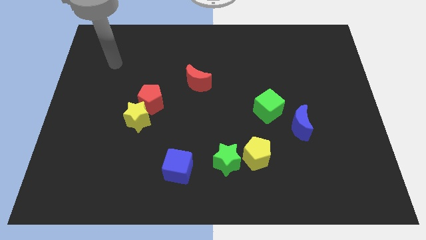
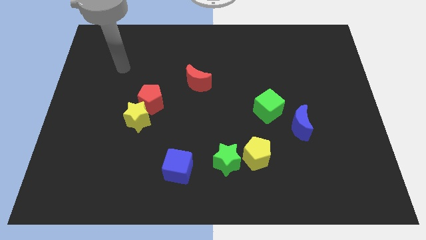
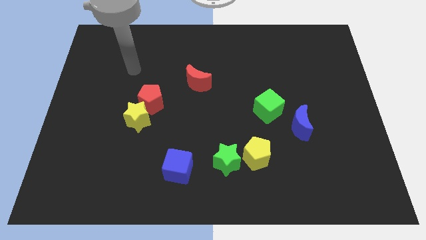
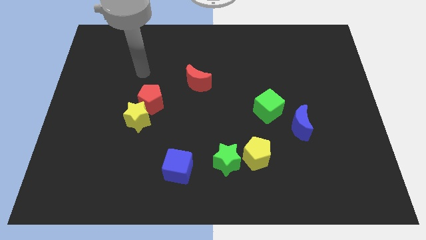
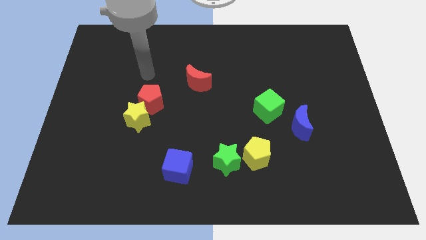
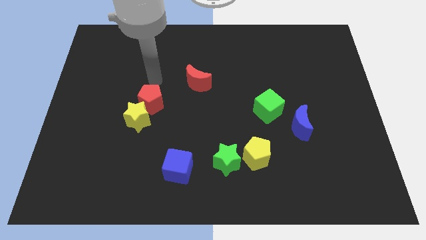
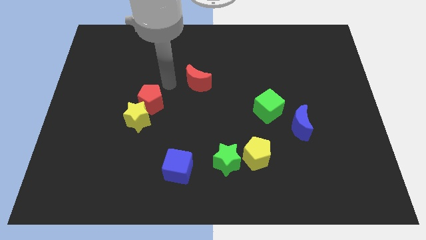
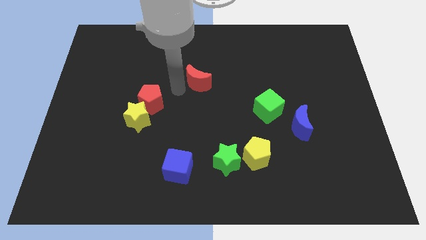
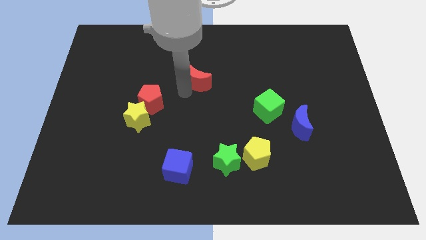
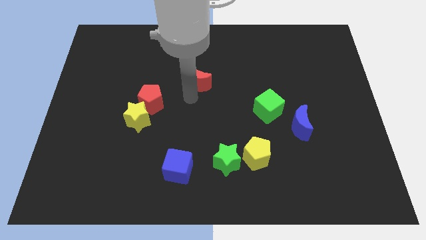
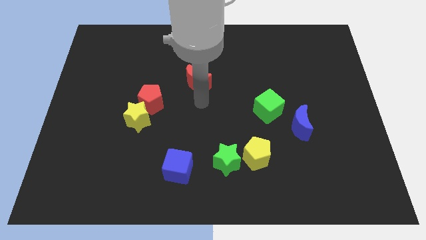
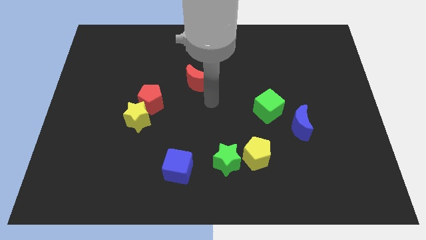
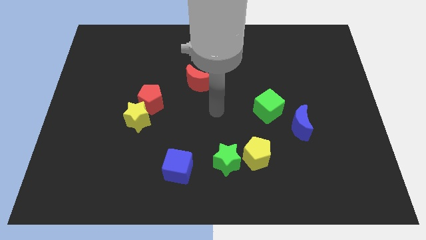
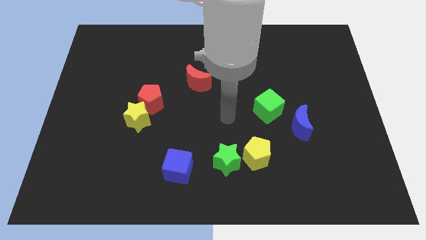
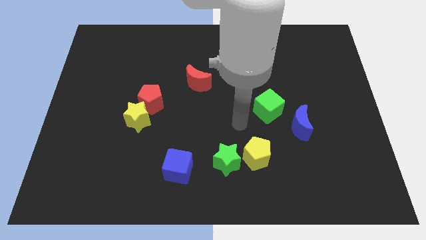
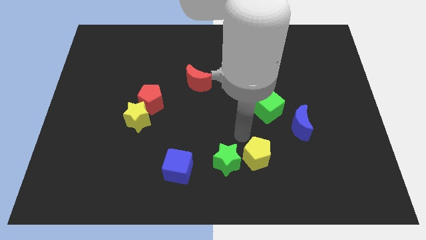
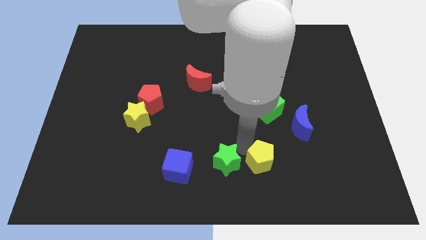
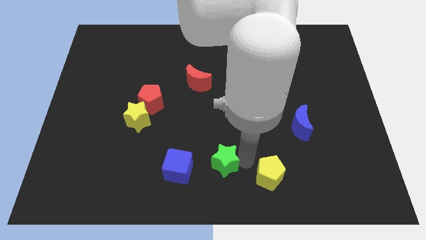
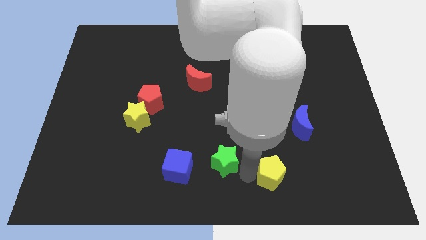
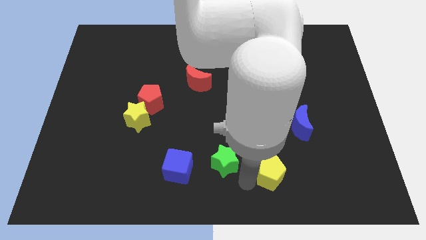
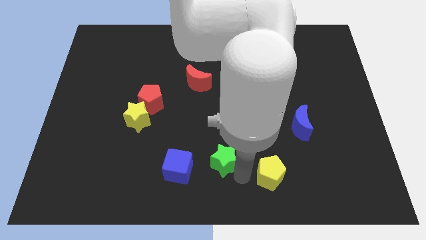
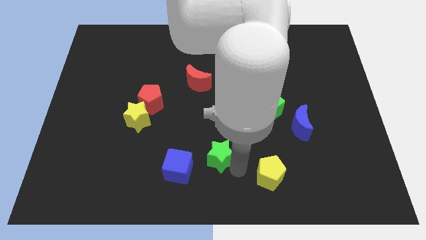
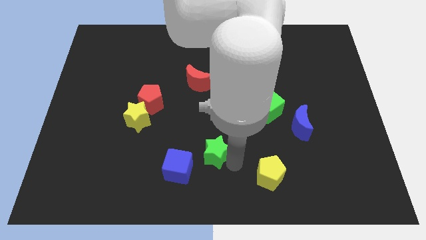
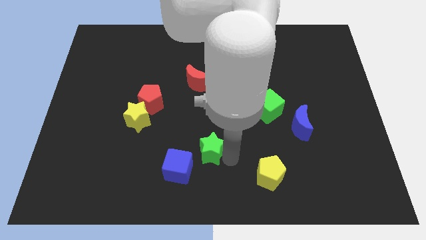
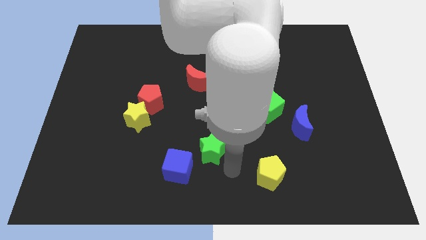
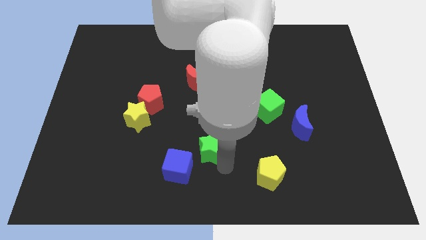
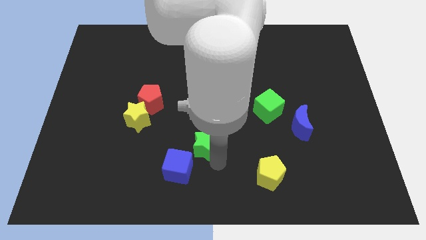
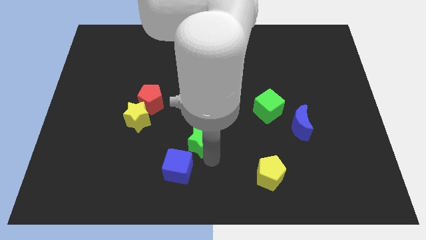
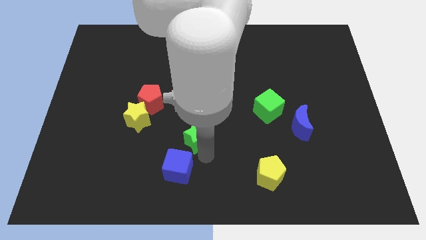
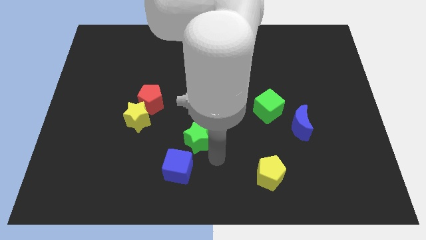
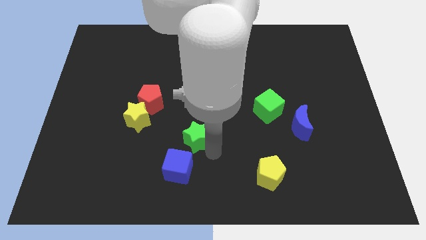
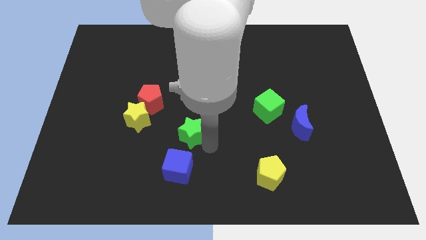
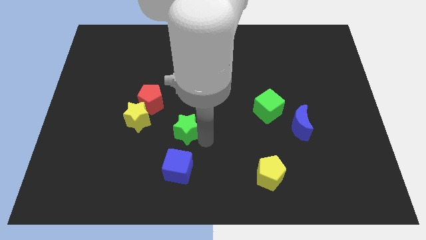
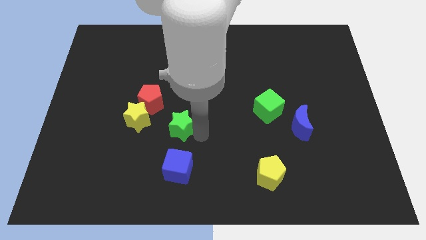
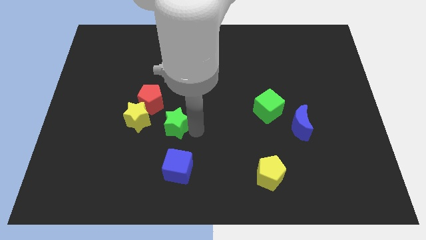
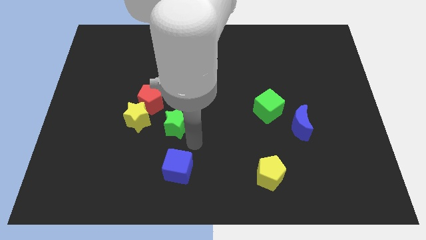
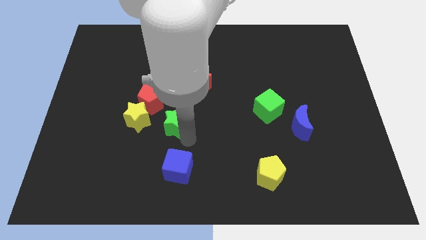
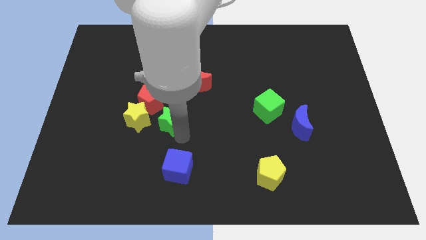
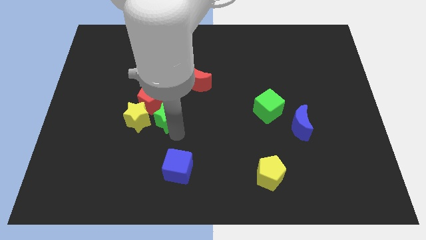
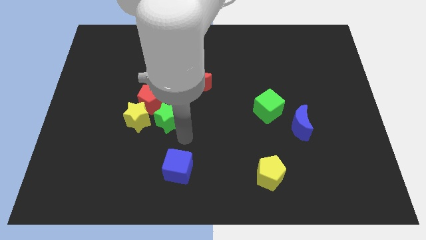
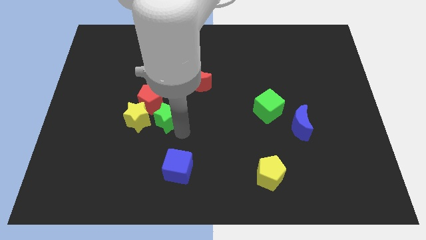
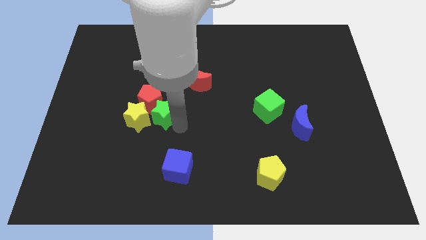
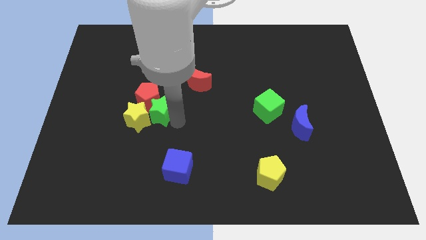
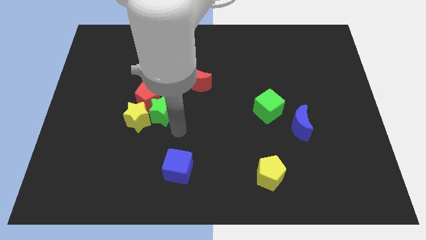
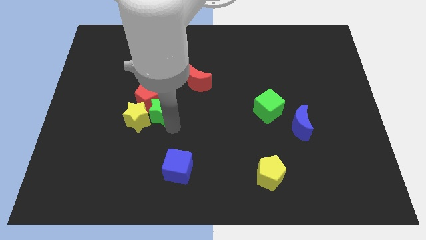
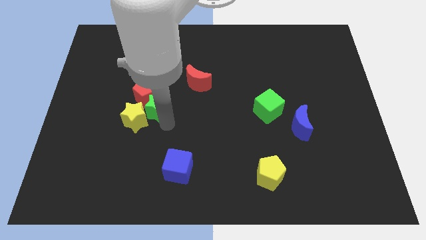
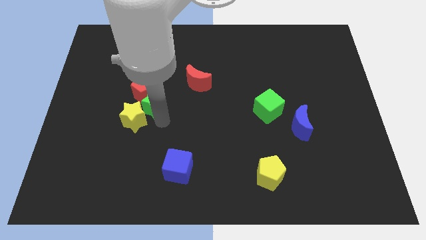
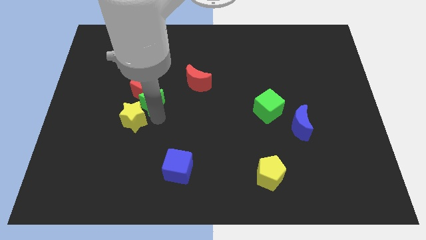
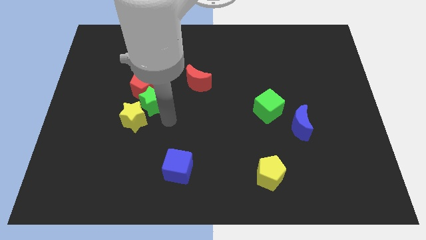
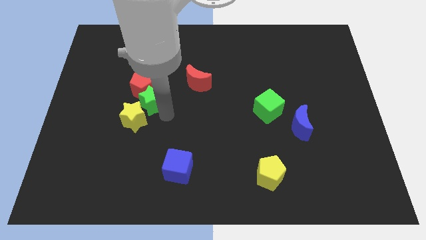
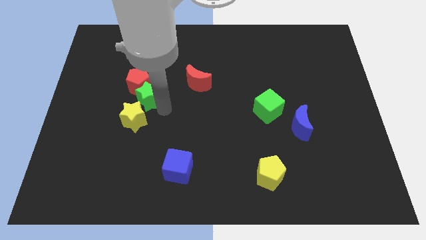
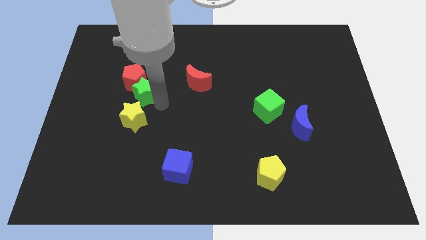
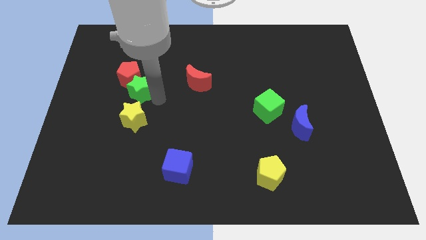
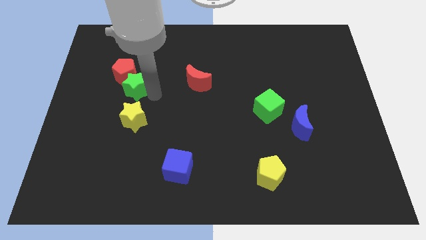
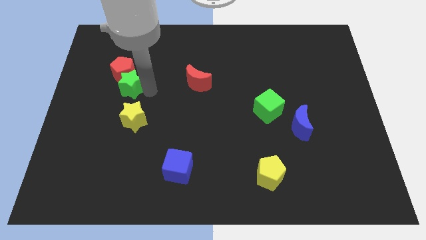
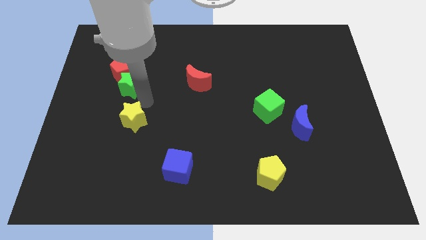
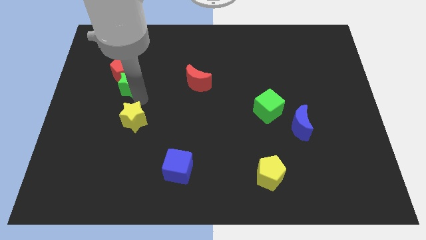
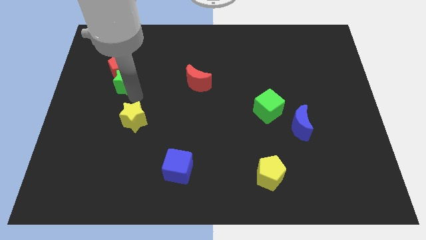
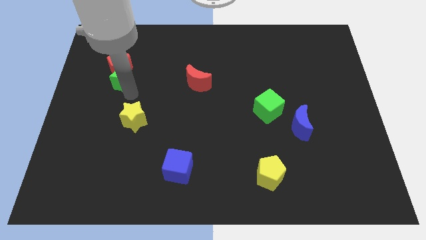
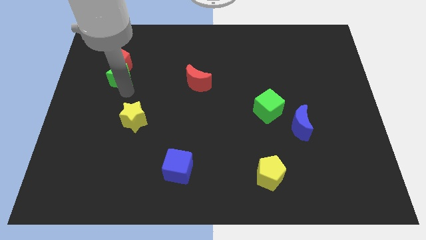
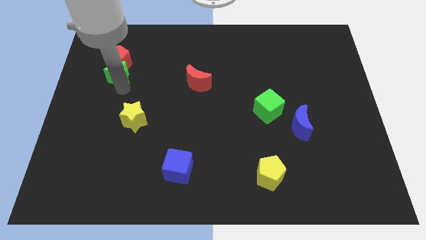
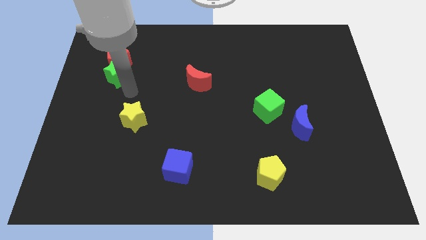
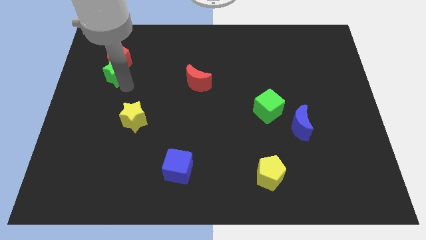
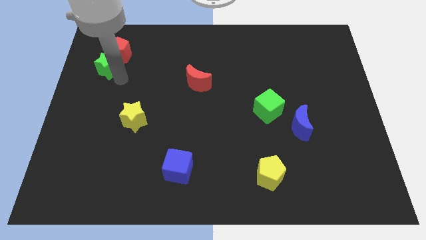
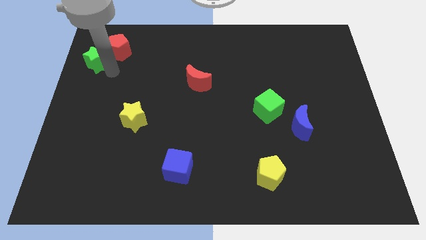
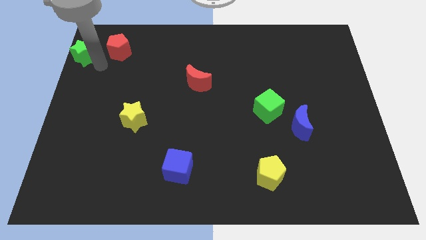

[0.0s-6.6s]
move the green star to the top left corner
